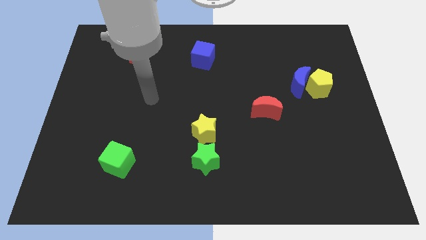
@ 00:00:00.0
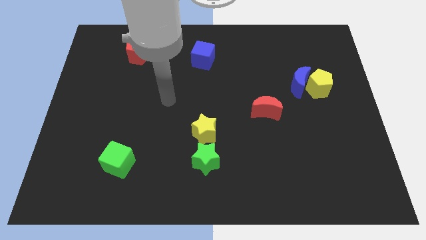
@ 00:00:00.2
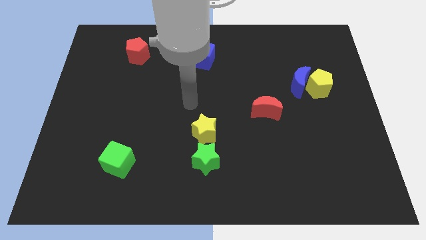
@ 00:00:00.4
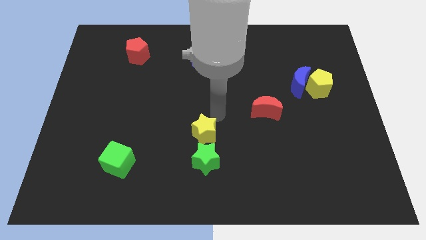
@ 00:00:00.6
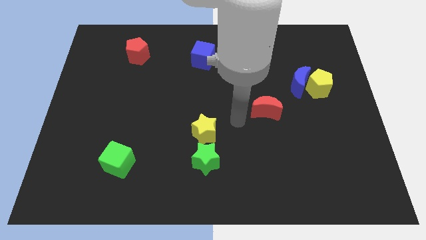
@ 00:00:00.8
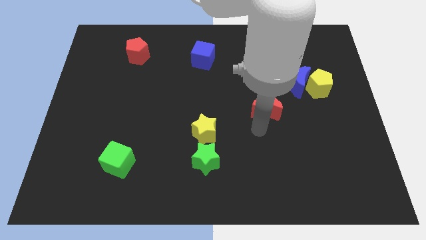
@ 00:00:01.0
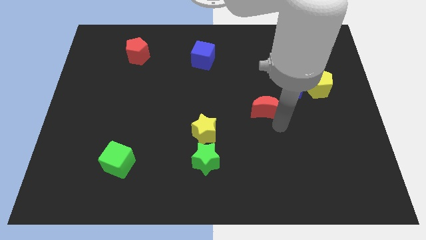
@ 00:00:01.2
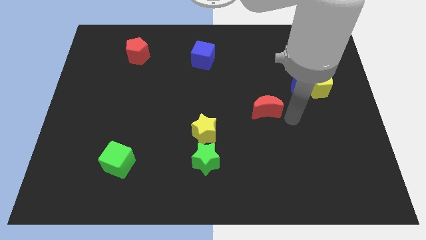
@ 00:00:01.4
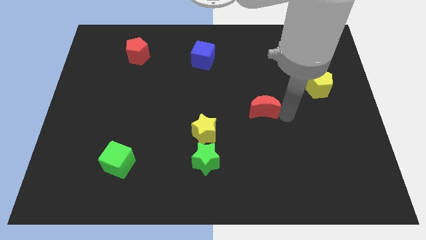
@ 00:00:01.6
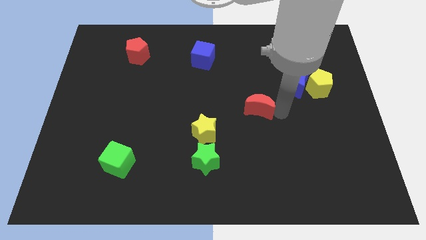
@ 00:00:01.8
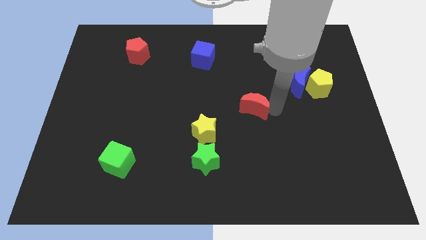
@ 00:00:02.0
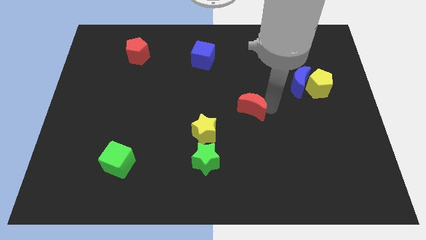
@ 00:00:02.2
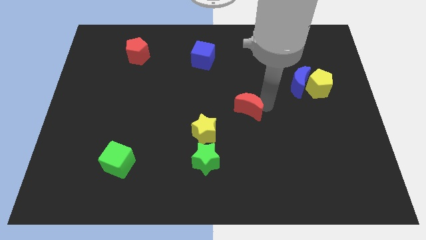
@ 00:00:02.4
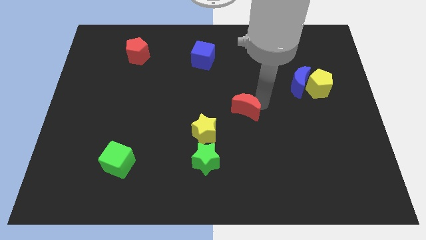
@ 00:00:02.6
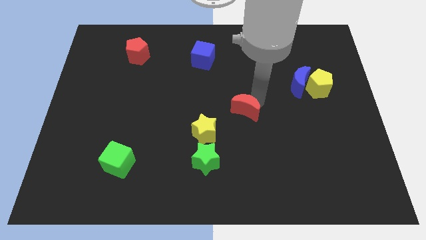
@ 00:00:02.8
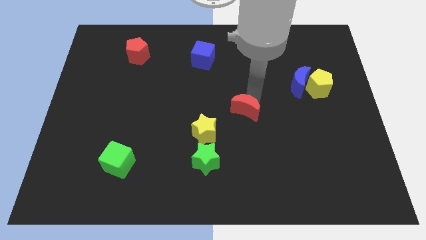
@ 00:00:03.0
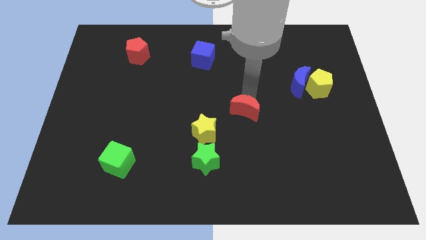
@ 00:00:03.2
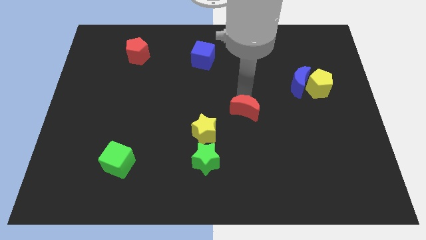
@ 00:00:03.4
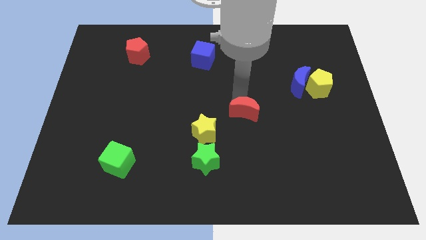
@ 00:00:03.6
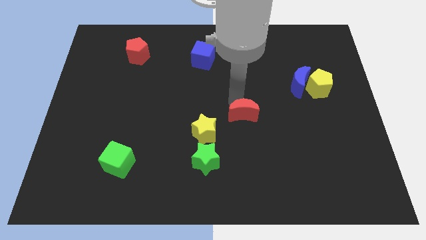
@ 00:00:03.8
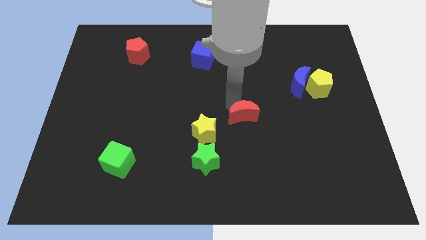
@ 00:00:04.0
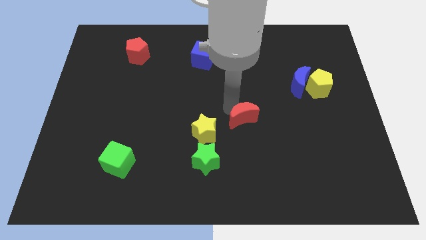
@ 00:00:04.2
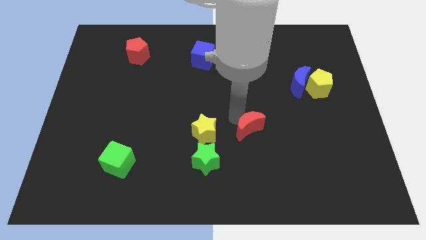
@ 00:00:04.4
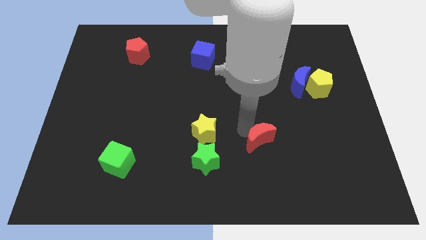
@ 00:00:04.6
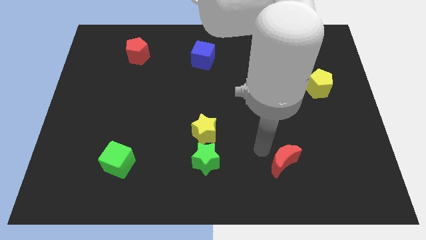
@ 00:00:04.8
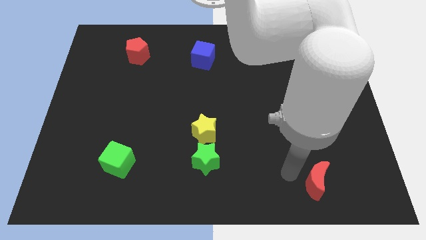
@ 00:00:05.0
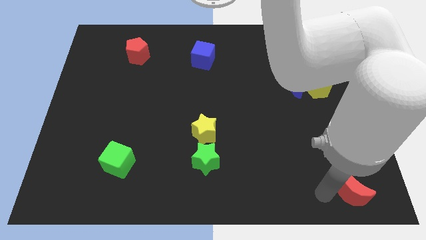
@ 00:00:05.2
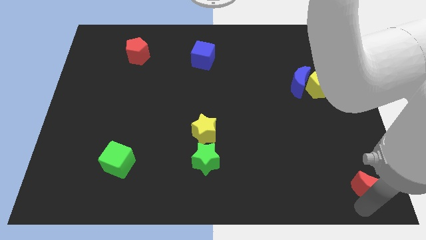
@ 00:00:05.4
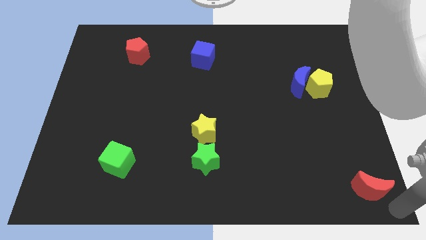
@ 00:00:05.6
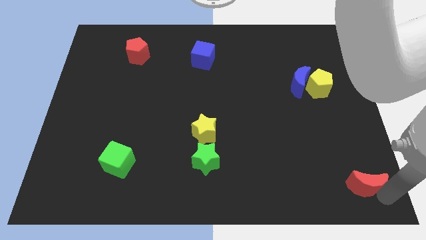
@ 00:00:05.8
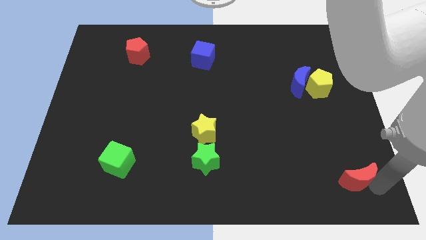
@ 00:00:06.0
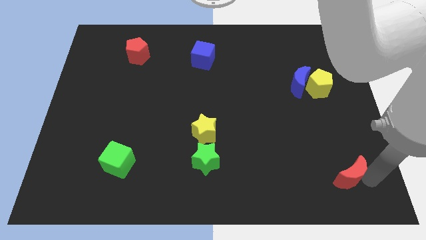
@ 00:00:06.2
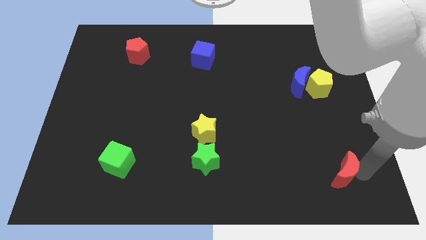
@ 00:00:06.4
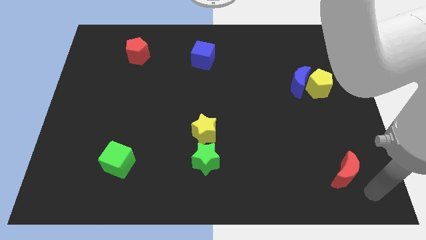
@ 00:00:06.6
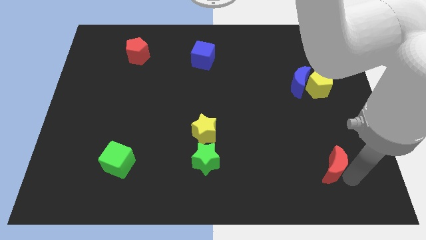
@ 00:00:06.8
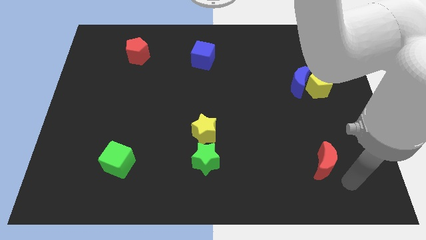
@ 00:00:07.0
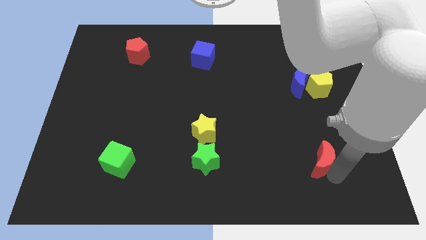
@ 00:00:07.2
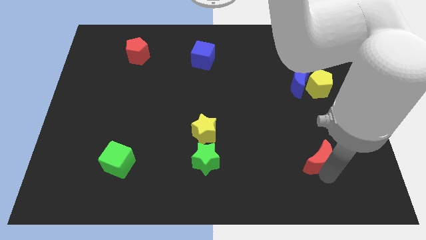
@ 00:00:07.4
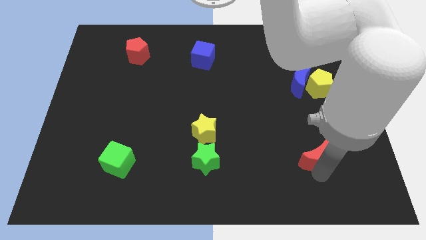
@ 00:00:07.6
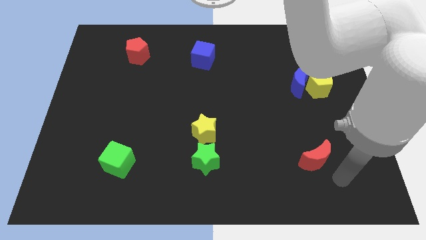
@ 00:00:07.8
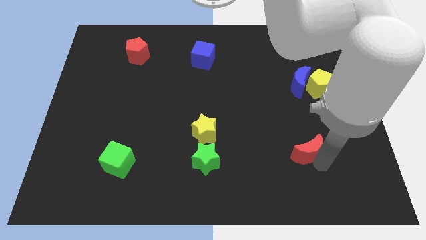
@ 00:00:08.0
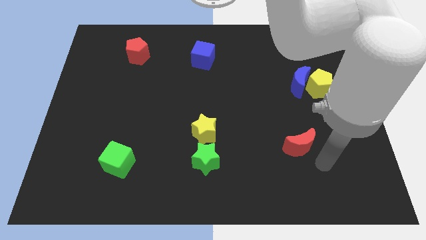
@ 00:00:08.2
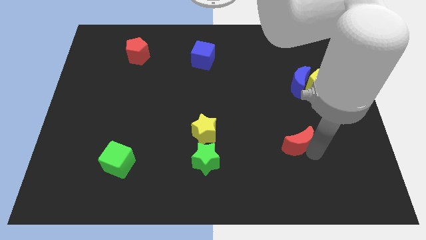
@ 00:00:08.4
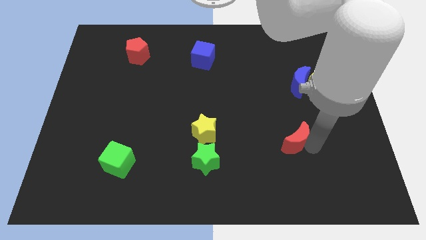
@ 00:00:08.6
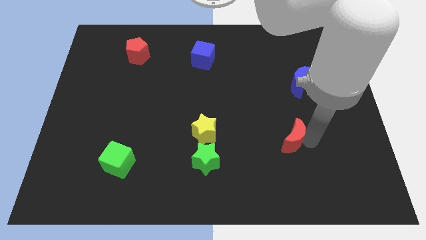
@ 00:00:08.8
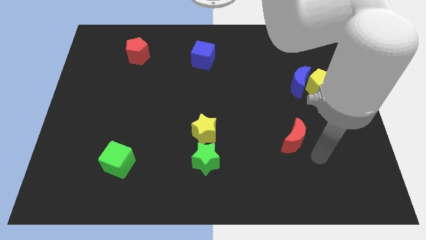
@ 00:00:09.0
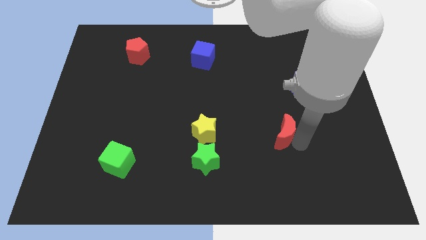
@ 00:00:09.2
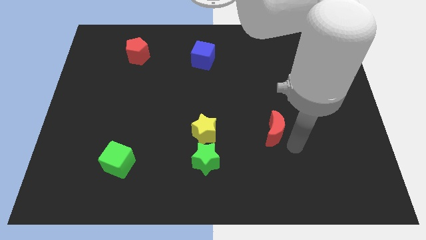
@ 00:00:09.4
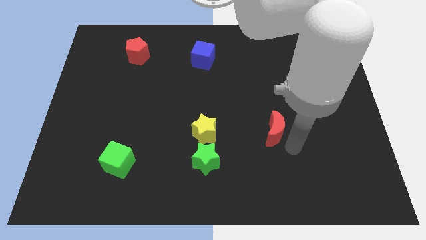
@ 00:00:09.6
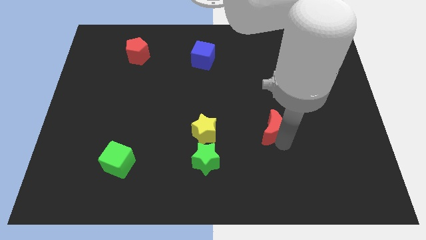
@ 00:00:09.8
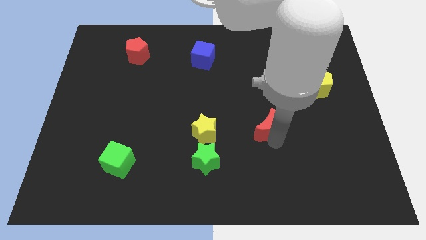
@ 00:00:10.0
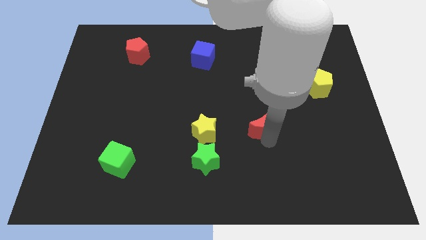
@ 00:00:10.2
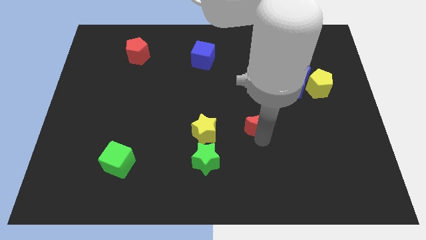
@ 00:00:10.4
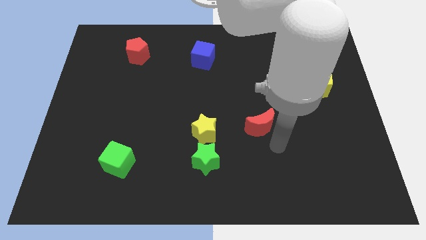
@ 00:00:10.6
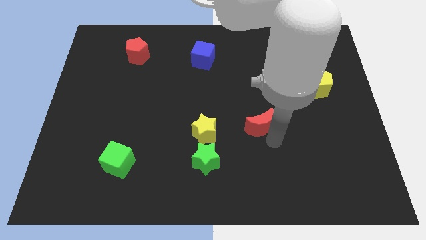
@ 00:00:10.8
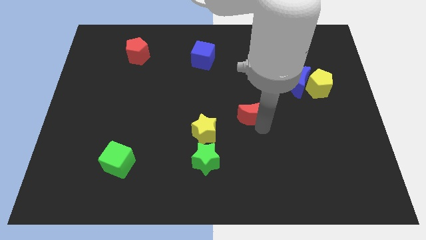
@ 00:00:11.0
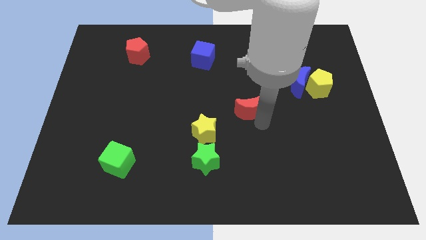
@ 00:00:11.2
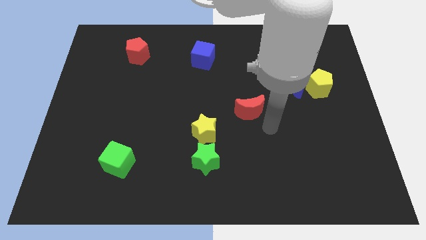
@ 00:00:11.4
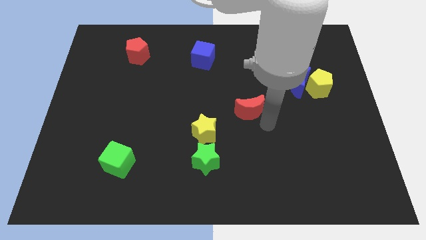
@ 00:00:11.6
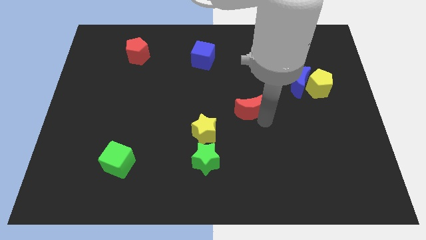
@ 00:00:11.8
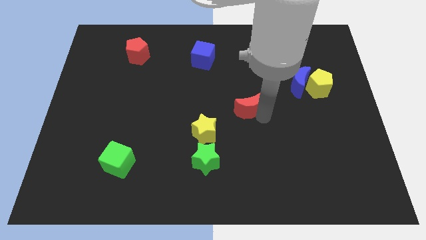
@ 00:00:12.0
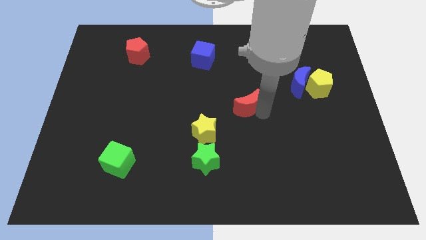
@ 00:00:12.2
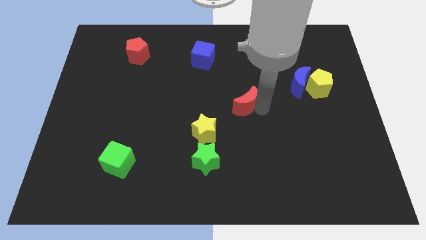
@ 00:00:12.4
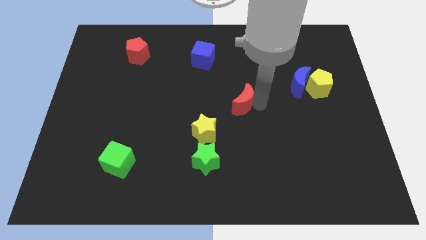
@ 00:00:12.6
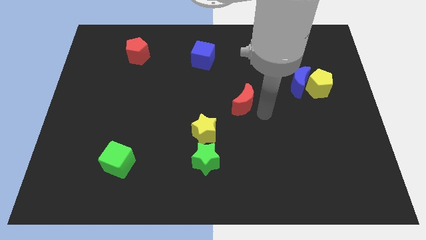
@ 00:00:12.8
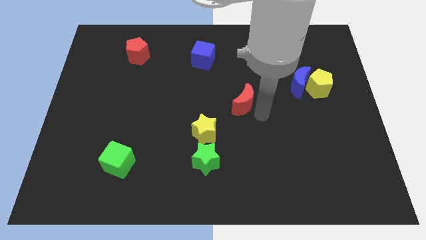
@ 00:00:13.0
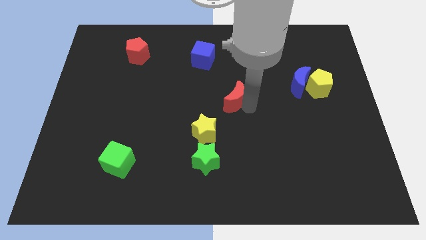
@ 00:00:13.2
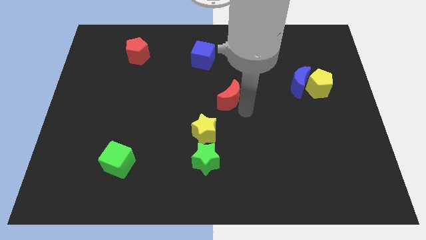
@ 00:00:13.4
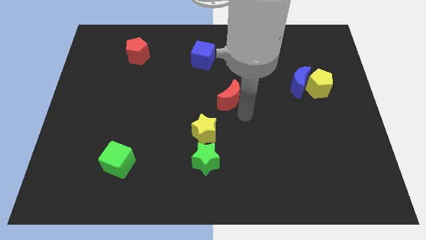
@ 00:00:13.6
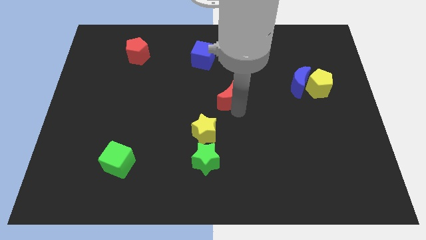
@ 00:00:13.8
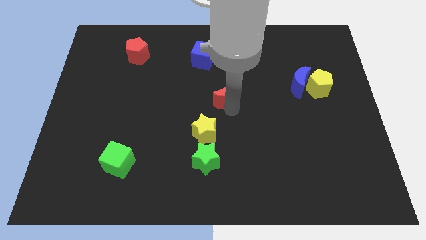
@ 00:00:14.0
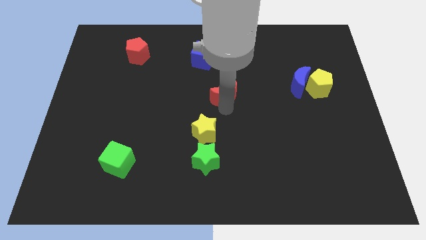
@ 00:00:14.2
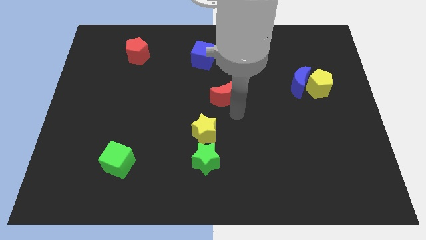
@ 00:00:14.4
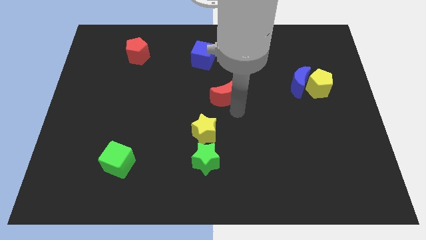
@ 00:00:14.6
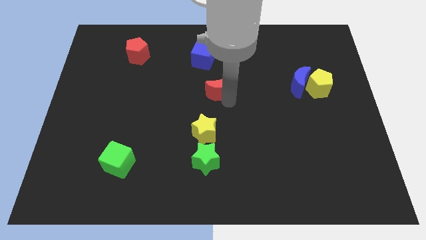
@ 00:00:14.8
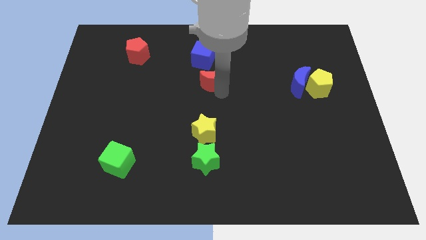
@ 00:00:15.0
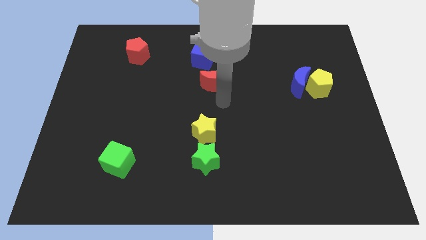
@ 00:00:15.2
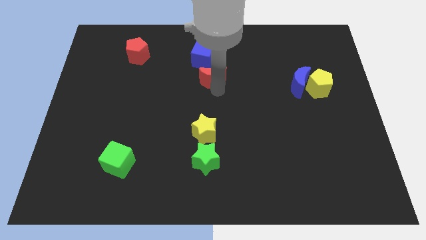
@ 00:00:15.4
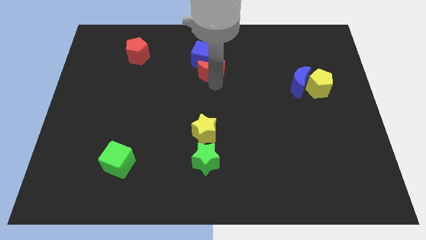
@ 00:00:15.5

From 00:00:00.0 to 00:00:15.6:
push the red moon towards the blue cube
